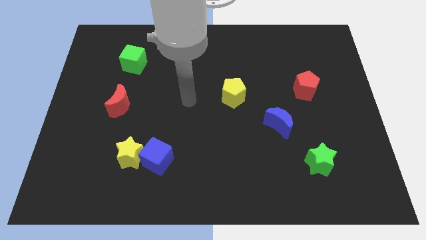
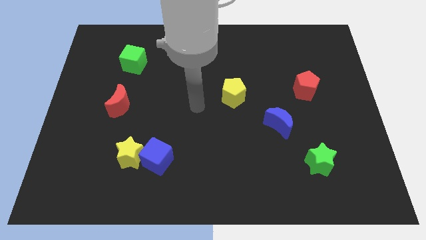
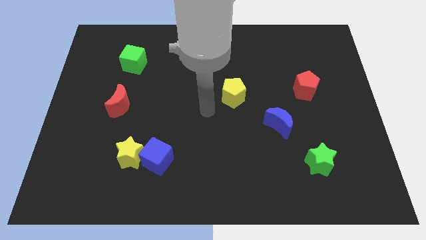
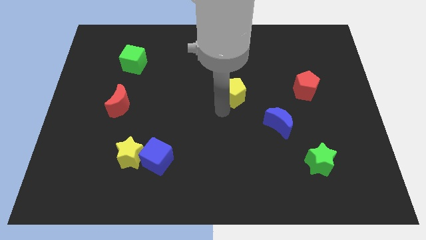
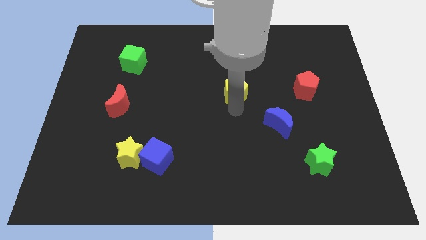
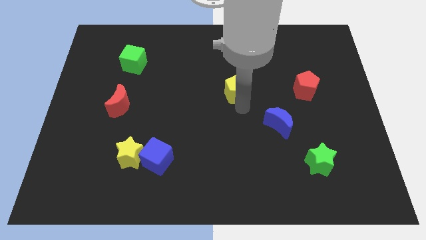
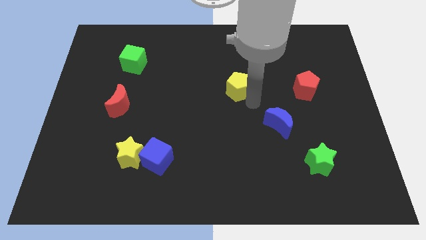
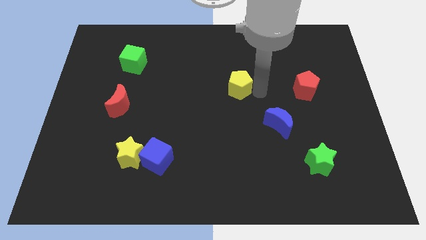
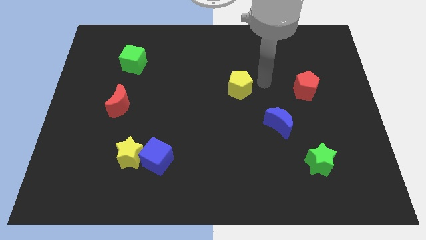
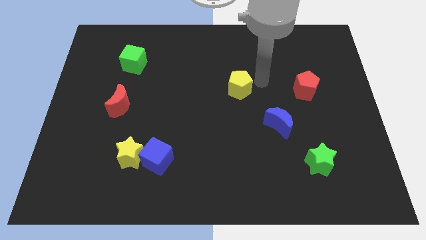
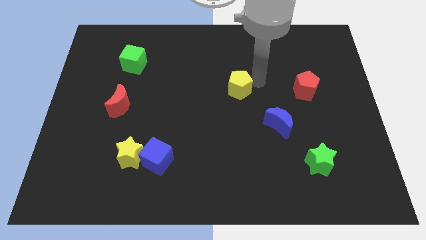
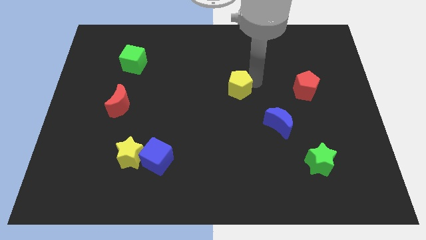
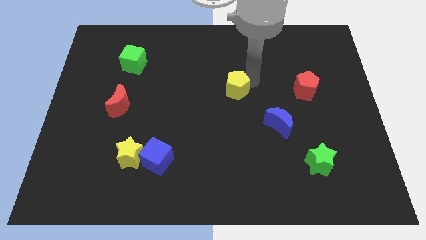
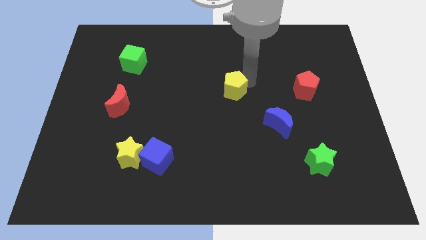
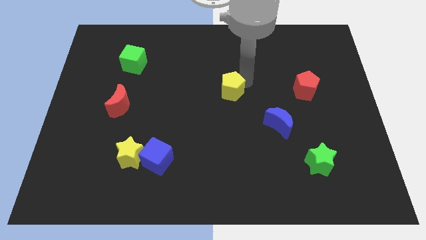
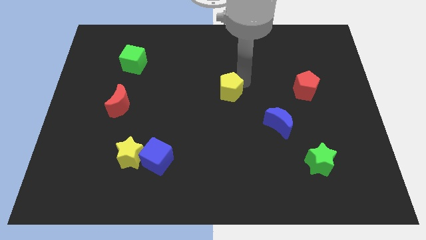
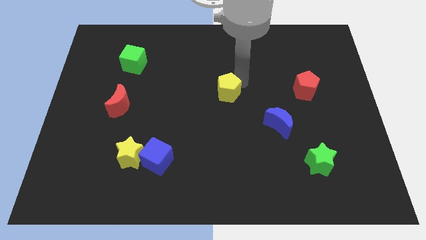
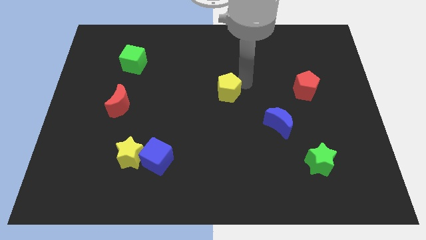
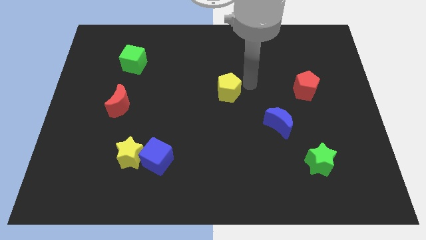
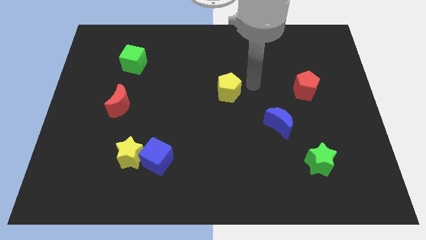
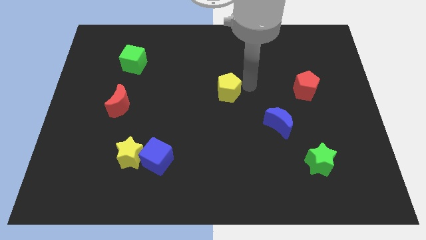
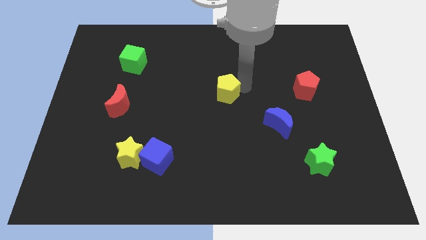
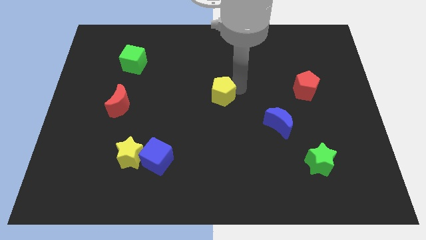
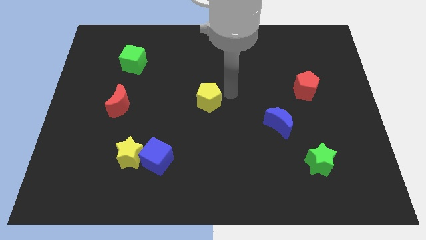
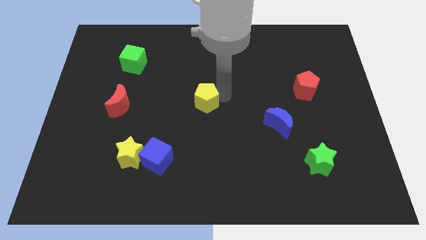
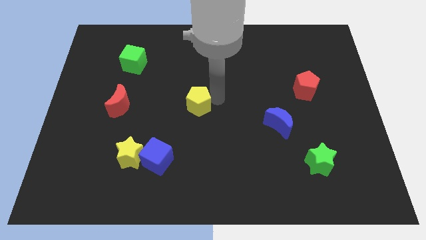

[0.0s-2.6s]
slide the yellow pentagon a bit to the left

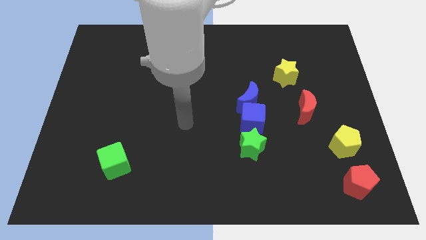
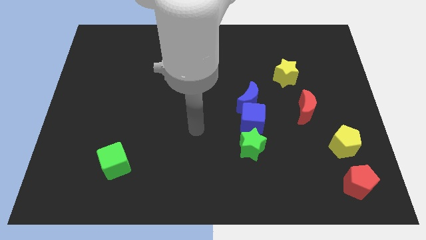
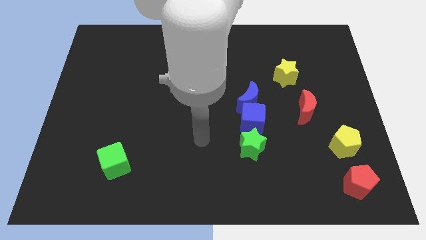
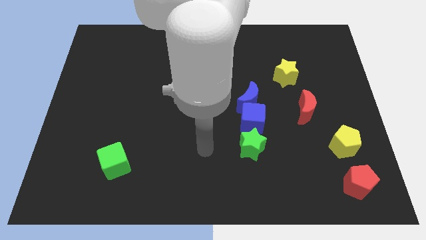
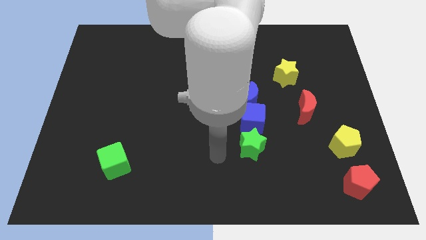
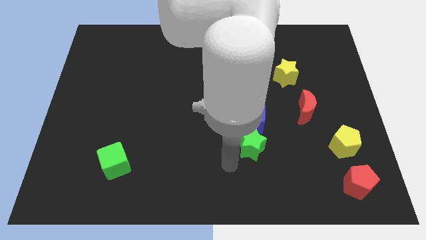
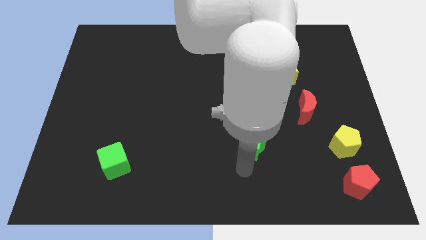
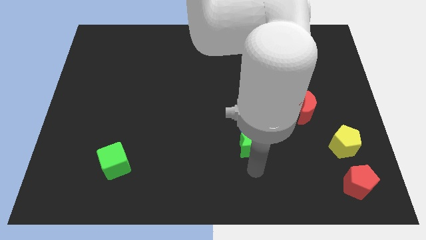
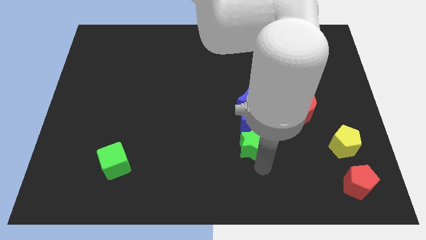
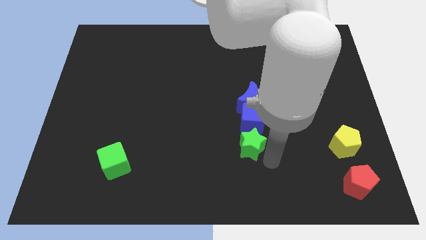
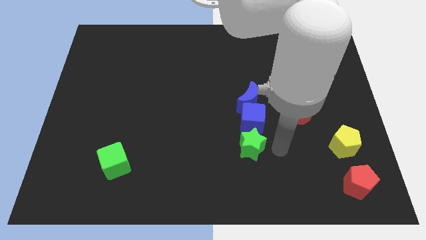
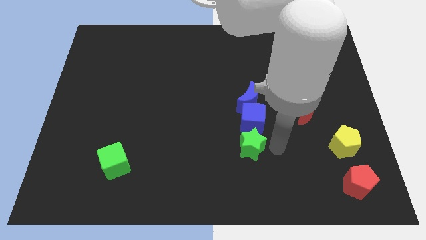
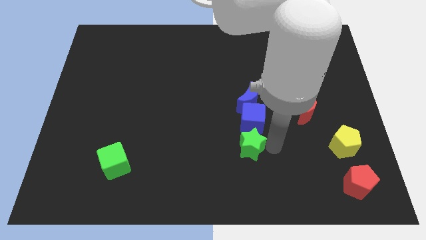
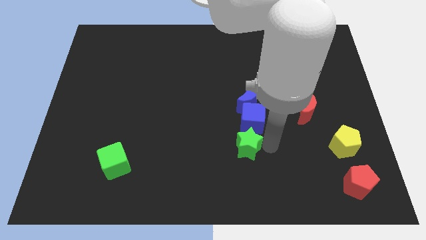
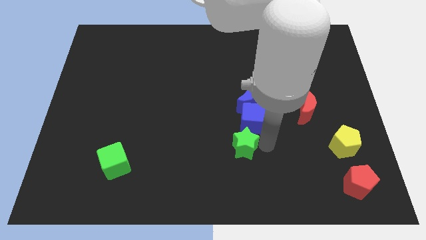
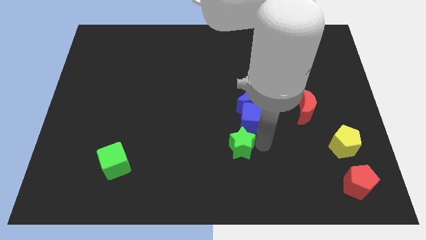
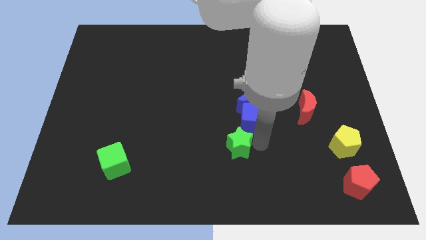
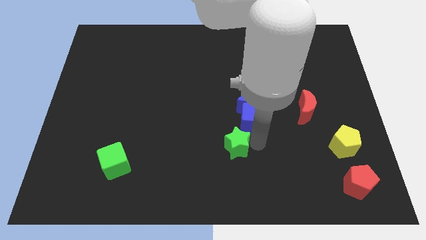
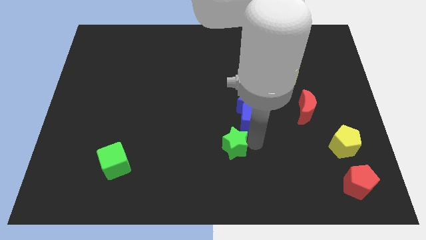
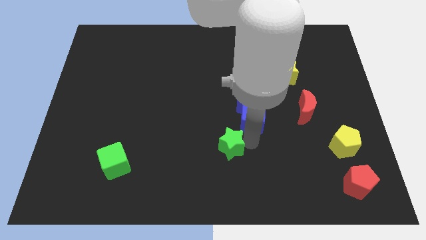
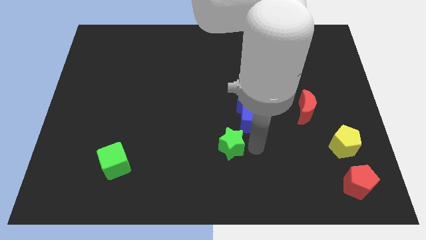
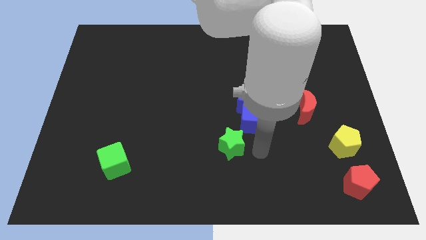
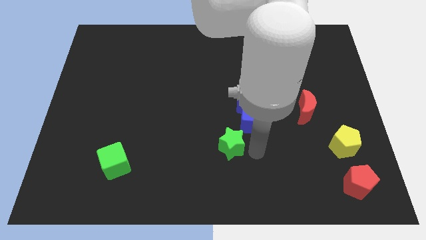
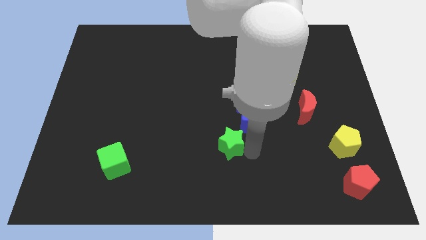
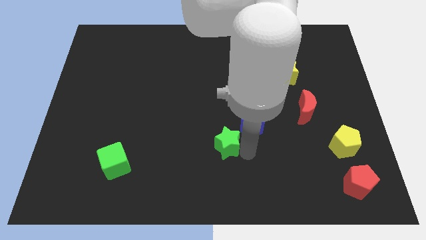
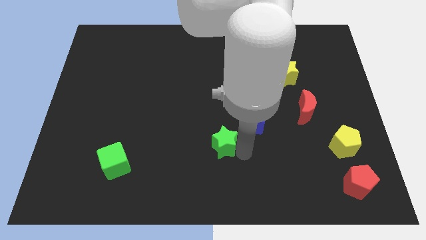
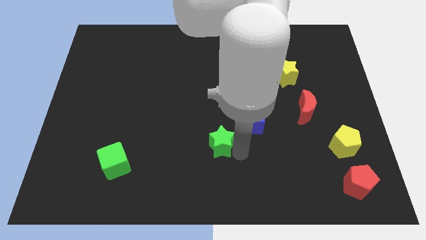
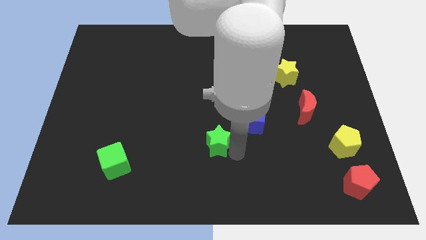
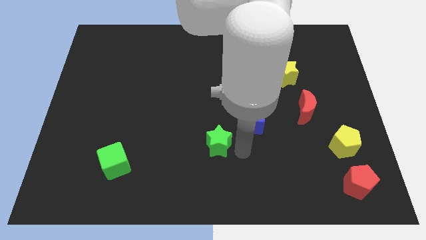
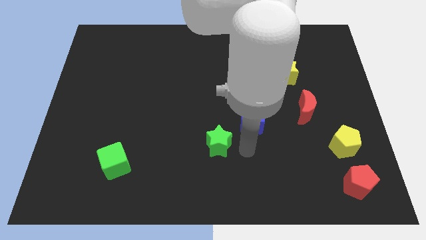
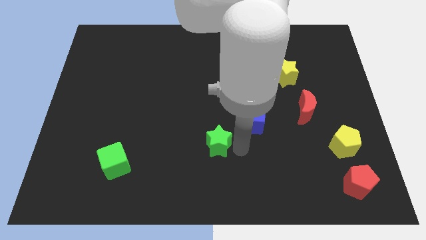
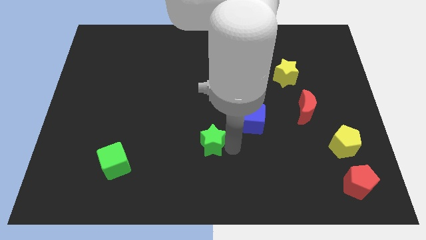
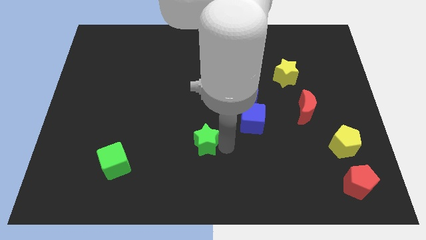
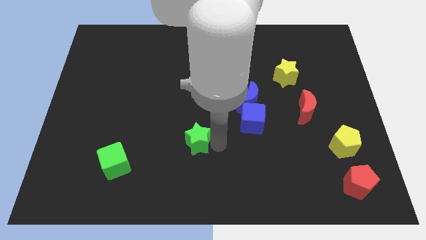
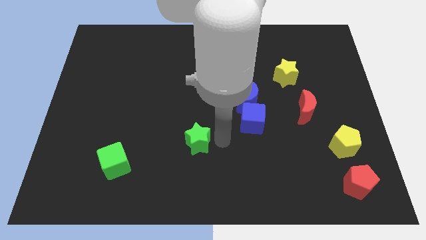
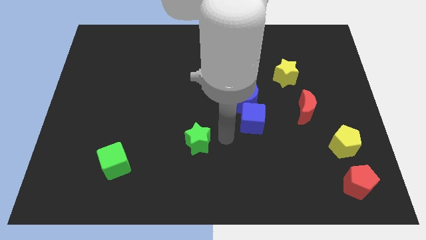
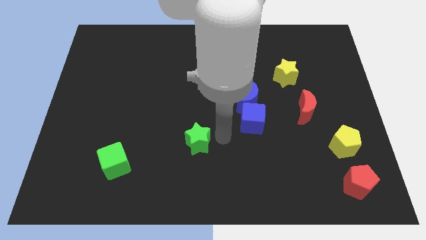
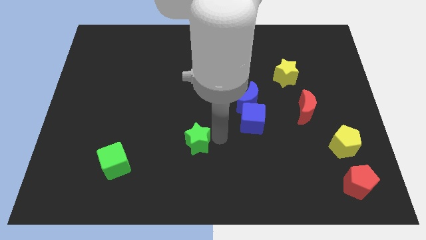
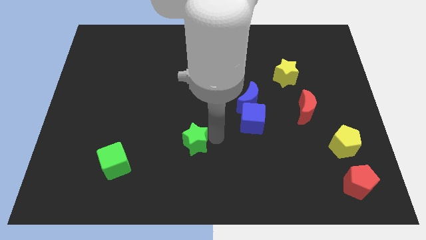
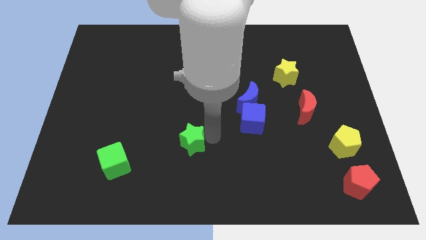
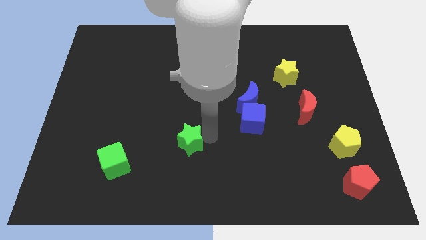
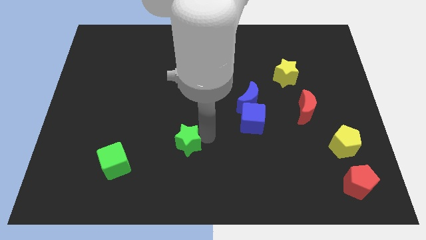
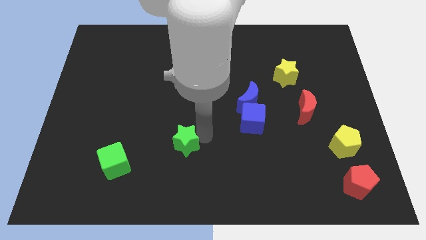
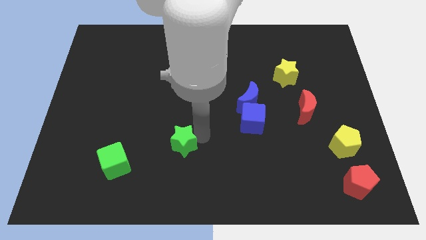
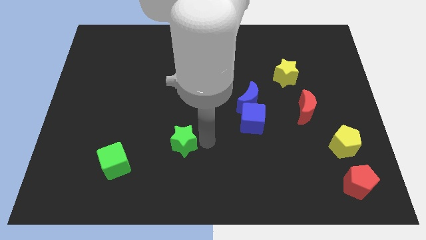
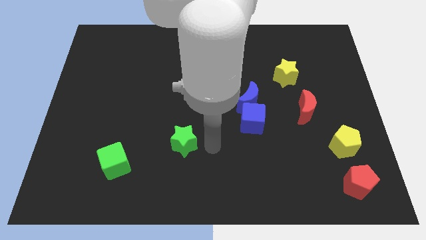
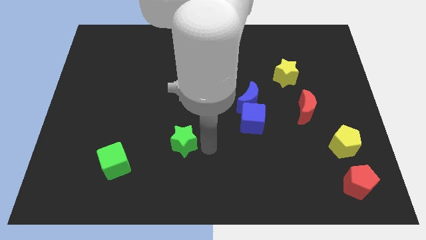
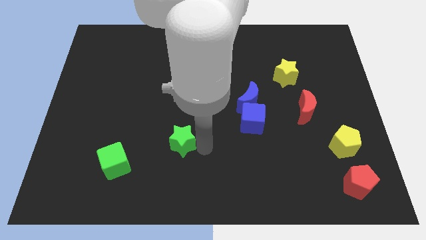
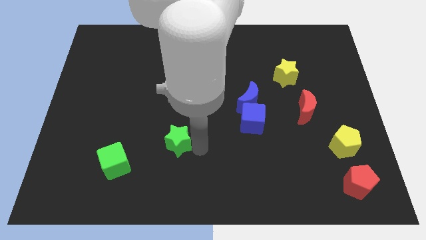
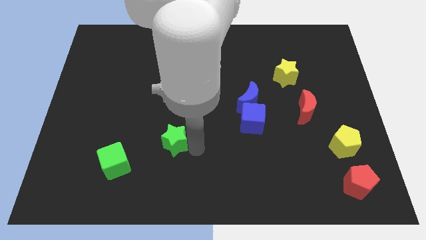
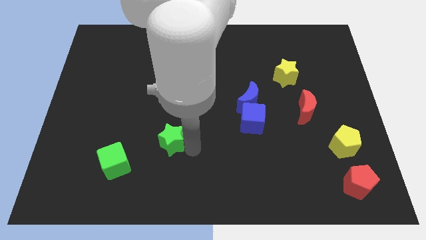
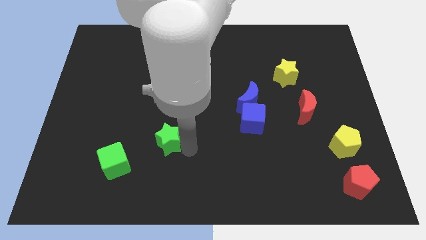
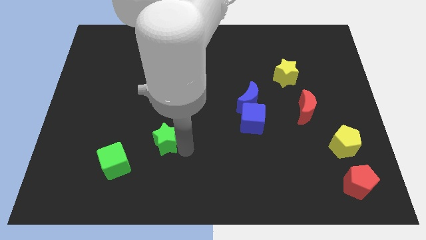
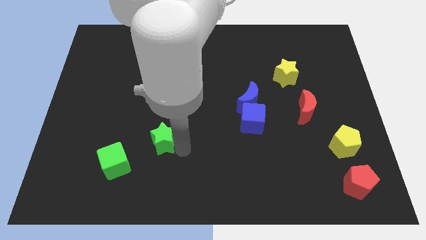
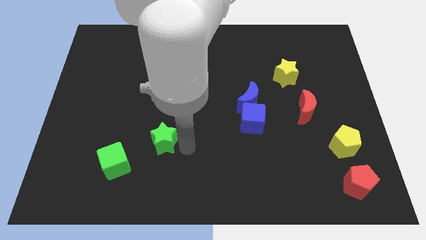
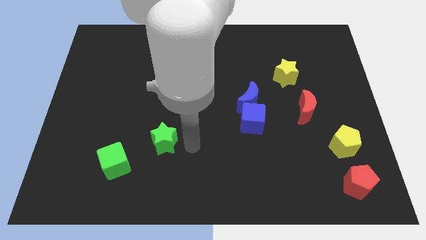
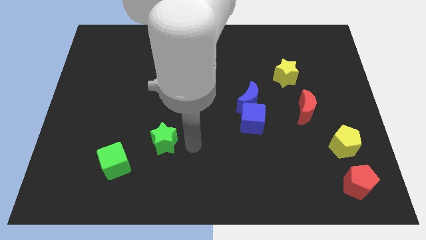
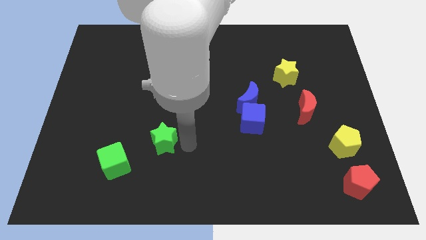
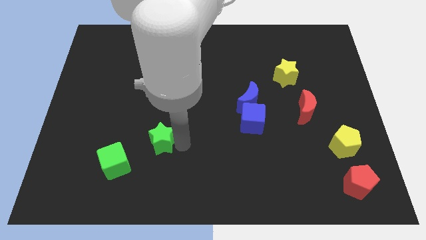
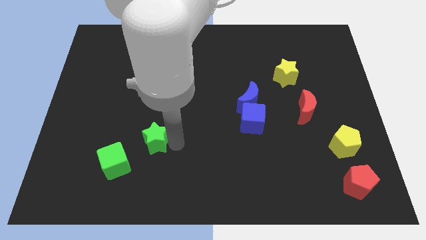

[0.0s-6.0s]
move the green star left
